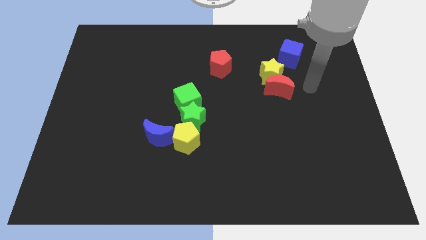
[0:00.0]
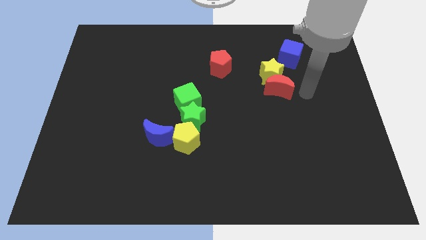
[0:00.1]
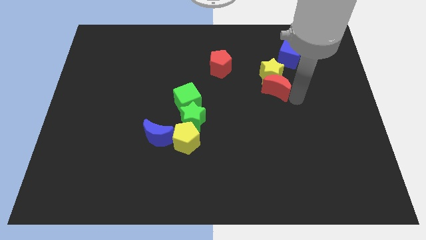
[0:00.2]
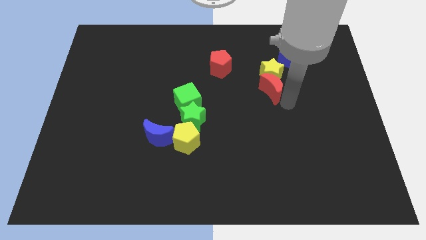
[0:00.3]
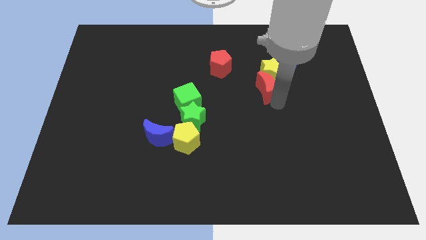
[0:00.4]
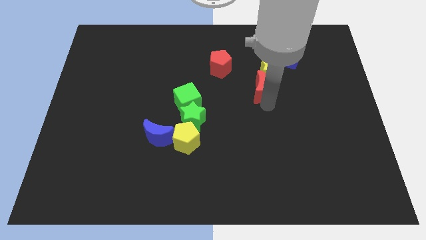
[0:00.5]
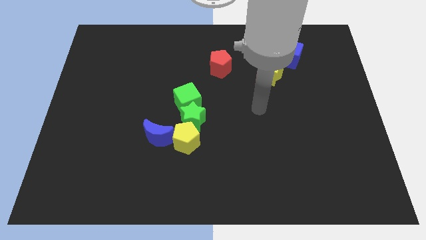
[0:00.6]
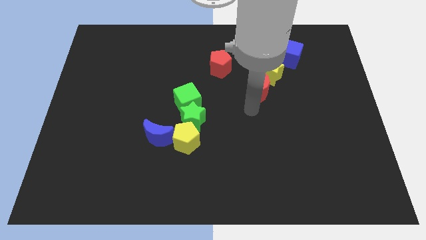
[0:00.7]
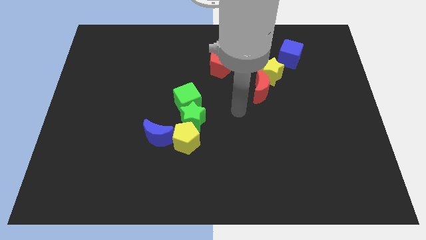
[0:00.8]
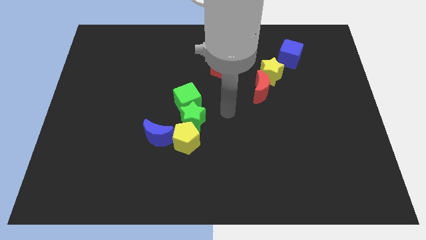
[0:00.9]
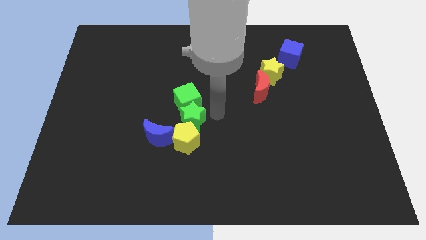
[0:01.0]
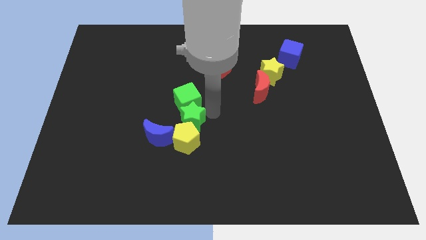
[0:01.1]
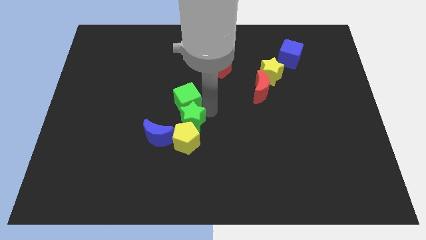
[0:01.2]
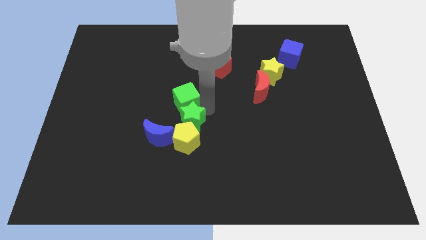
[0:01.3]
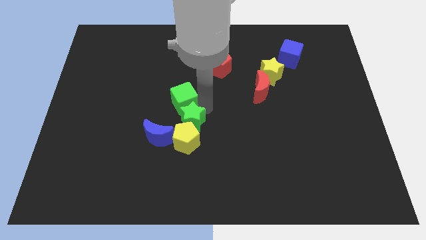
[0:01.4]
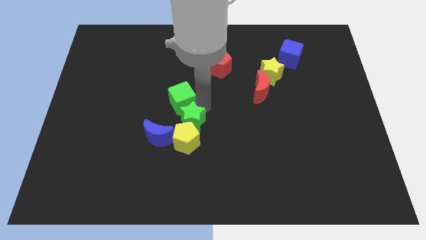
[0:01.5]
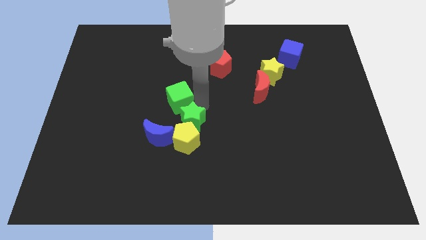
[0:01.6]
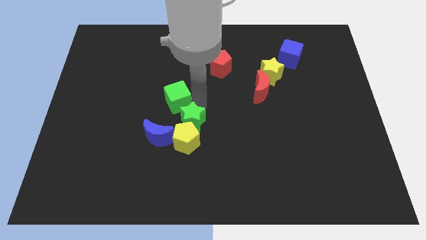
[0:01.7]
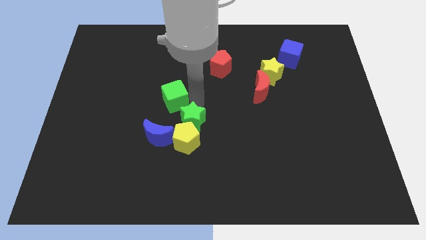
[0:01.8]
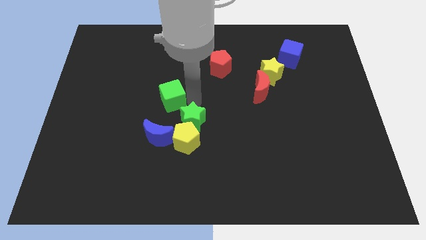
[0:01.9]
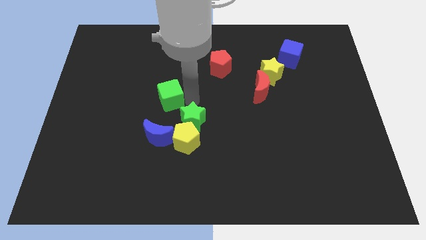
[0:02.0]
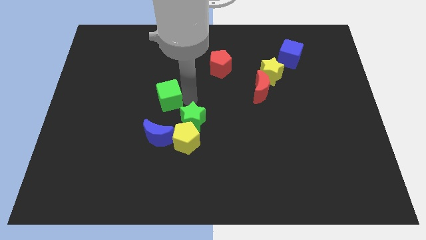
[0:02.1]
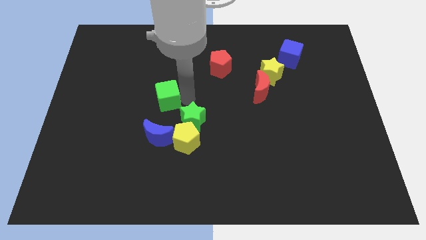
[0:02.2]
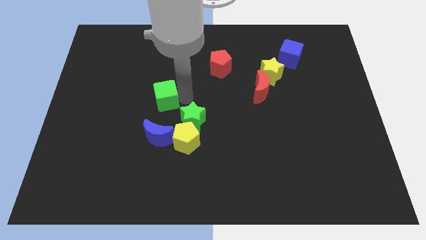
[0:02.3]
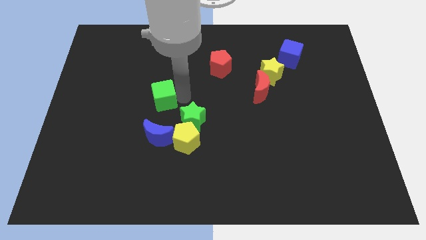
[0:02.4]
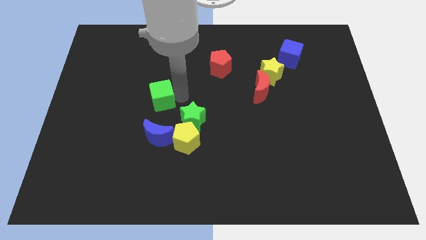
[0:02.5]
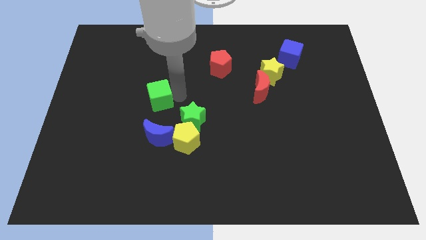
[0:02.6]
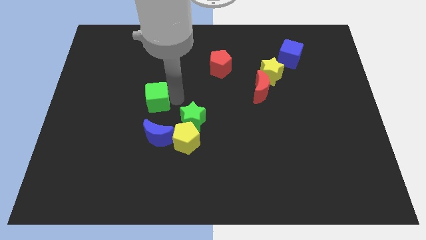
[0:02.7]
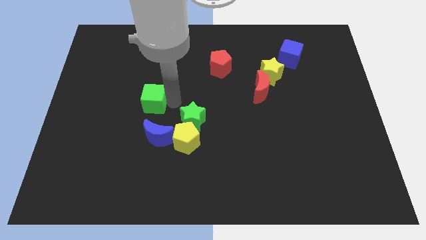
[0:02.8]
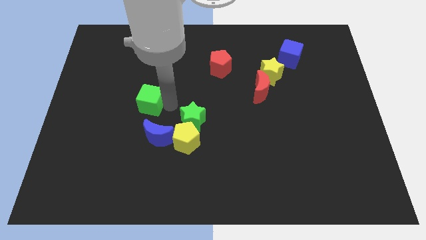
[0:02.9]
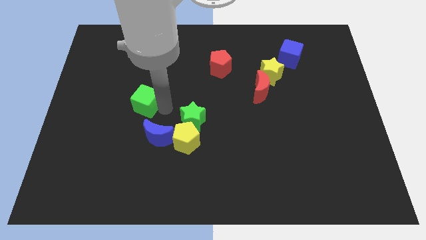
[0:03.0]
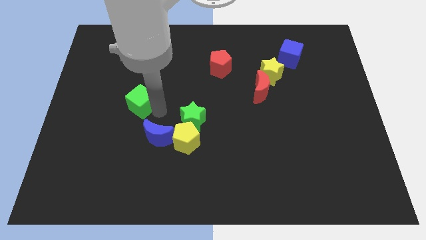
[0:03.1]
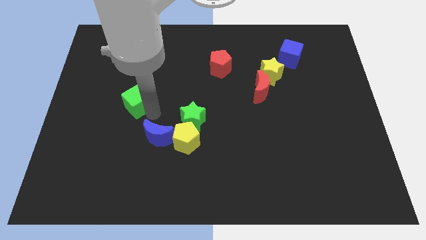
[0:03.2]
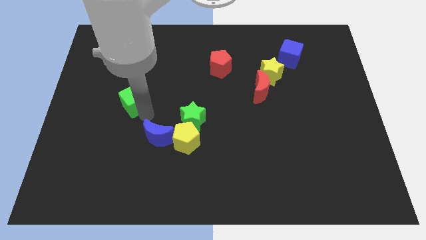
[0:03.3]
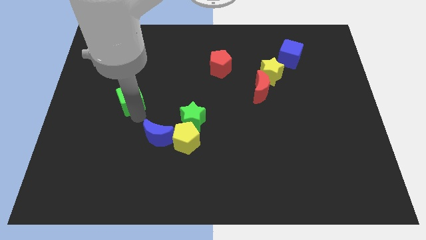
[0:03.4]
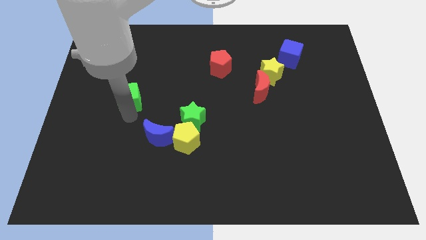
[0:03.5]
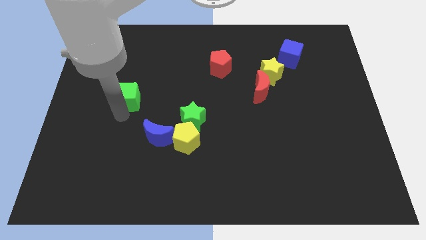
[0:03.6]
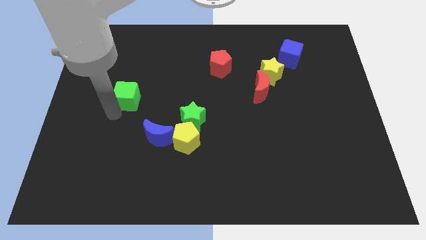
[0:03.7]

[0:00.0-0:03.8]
slide the green cube a bit up and then to the left

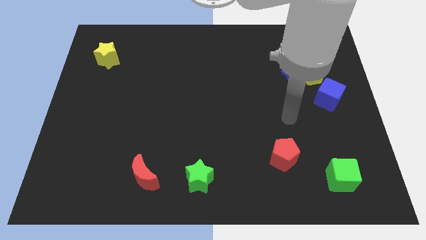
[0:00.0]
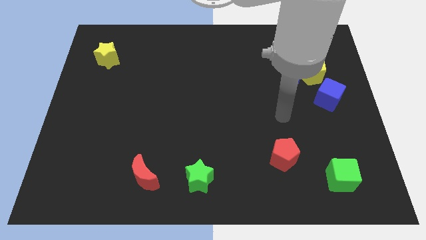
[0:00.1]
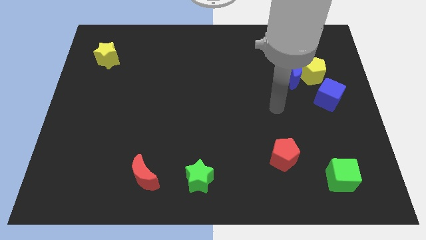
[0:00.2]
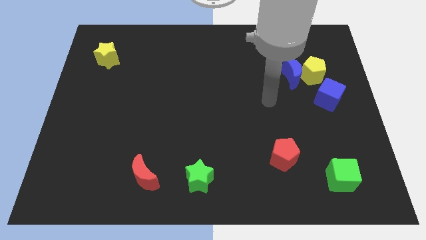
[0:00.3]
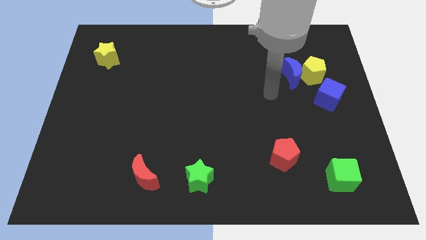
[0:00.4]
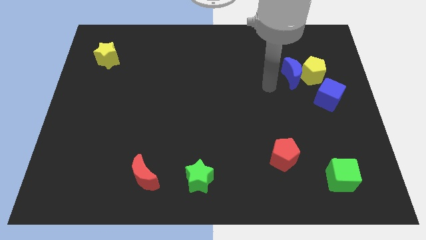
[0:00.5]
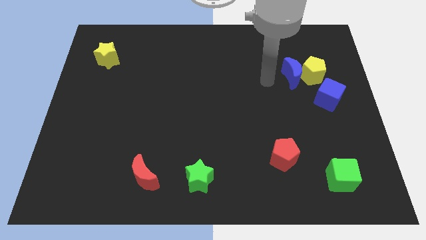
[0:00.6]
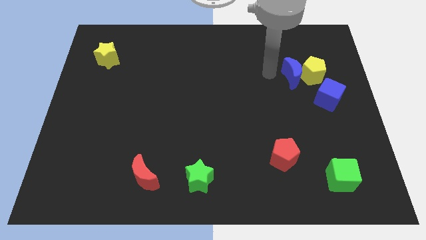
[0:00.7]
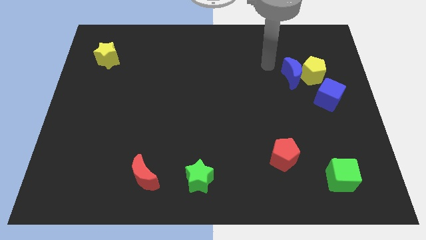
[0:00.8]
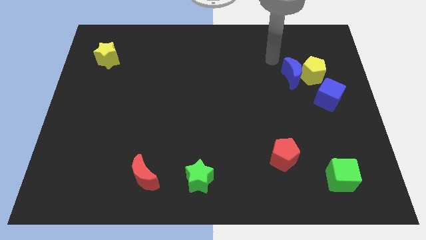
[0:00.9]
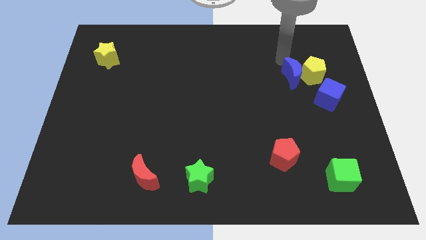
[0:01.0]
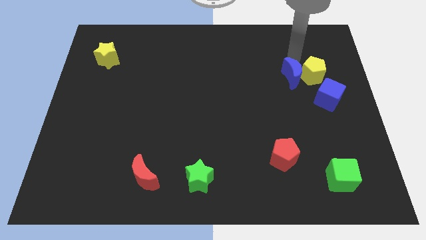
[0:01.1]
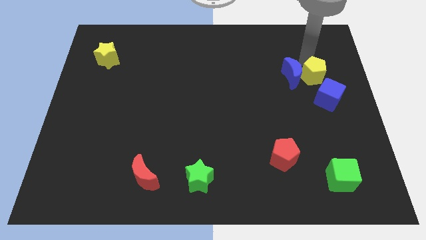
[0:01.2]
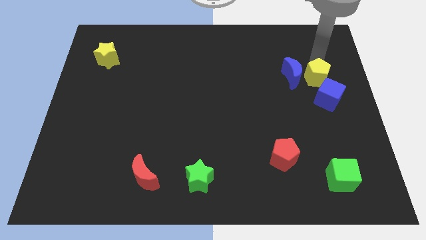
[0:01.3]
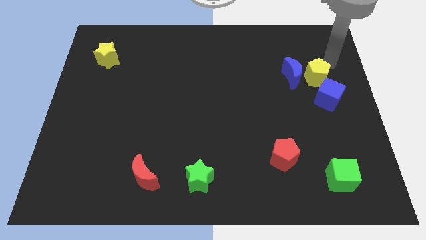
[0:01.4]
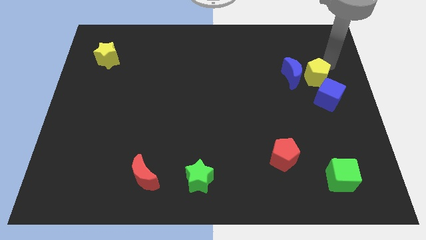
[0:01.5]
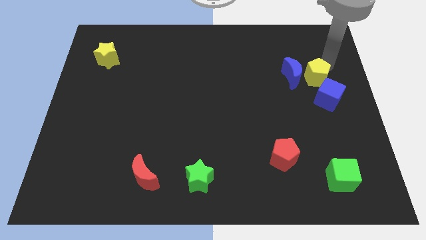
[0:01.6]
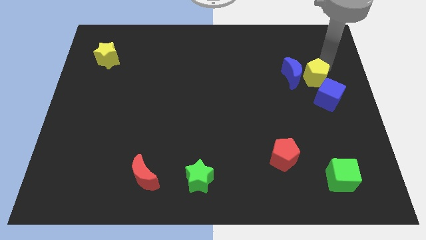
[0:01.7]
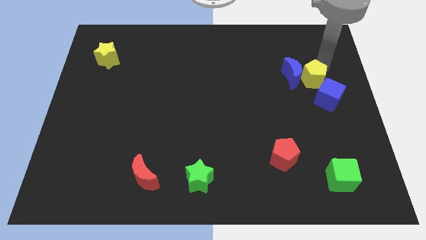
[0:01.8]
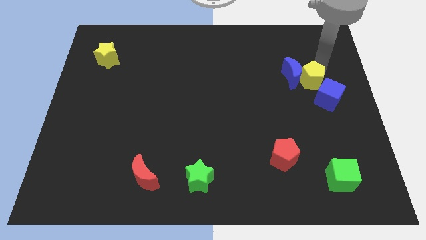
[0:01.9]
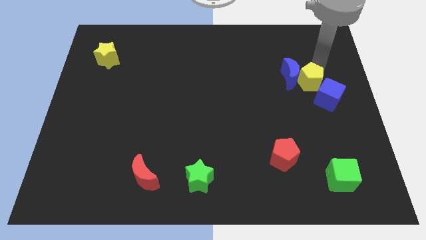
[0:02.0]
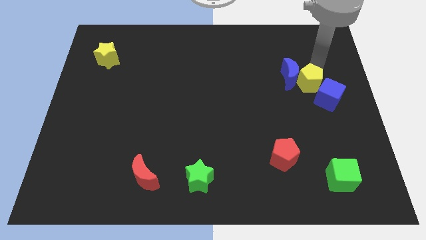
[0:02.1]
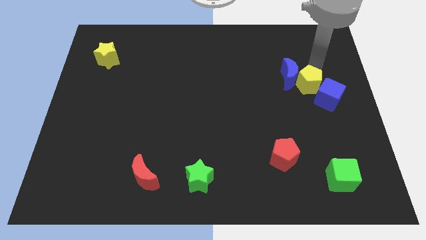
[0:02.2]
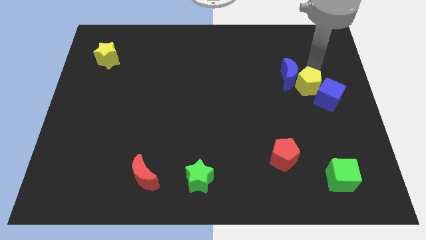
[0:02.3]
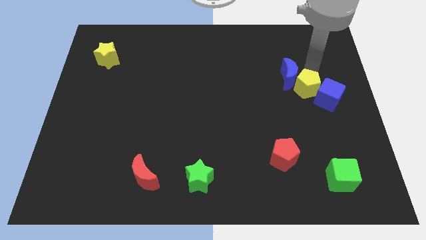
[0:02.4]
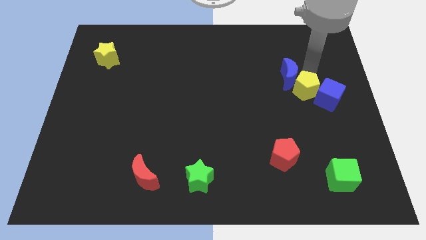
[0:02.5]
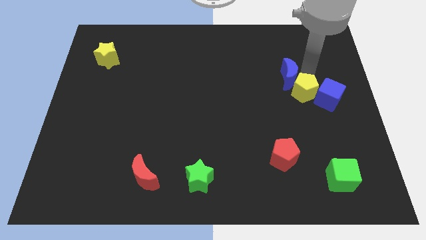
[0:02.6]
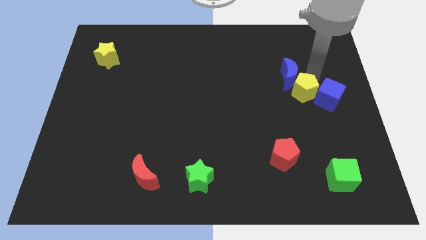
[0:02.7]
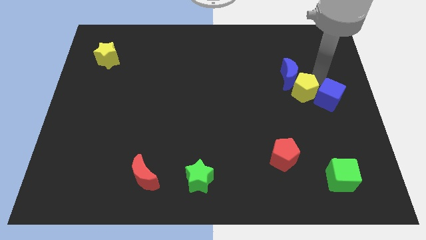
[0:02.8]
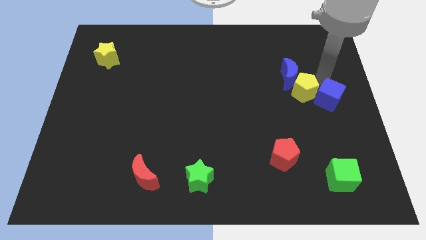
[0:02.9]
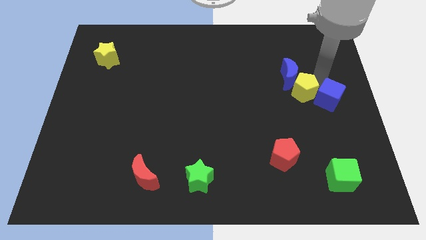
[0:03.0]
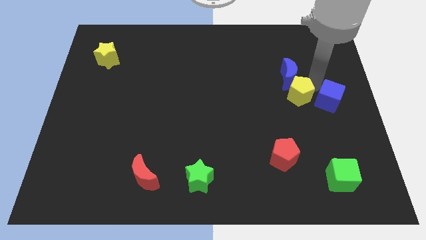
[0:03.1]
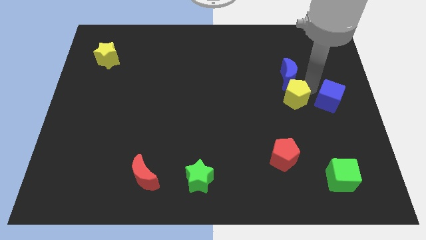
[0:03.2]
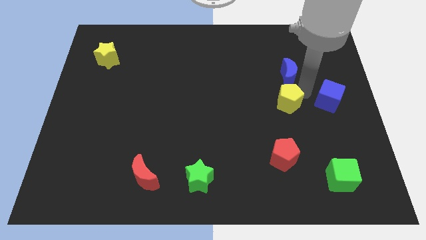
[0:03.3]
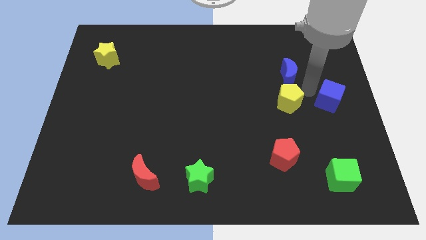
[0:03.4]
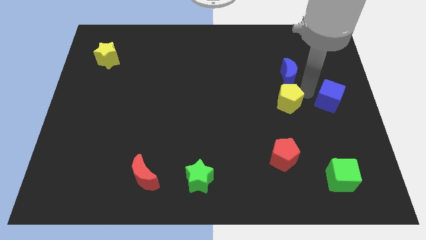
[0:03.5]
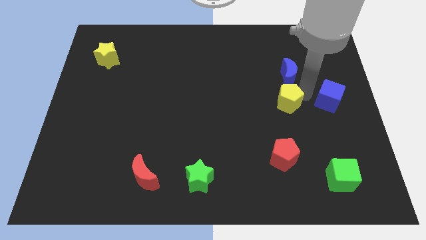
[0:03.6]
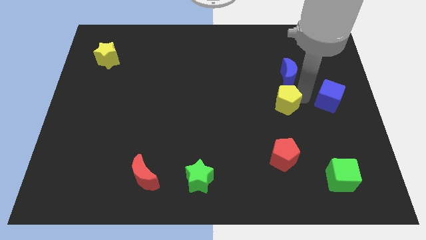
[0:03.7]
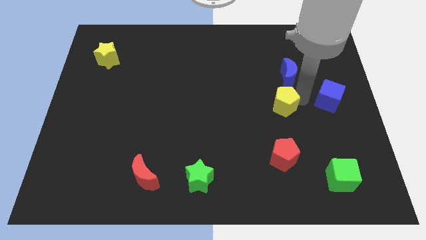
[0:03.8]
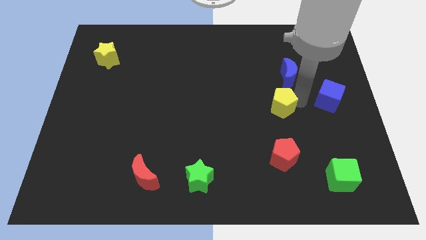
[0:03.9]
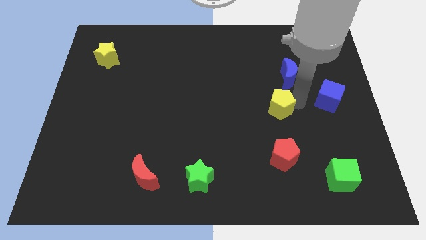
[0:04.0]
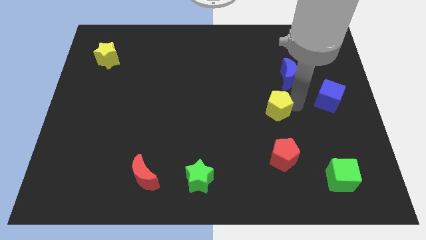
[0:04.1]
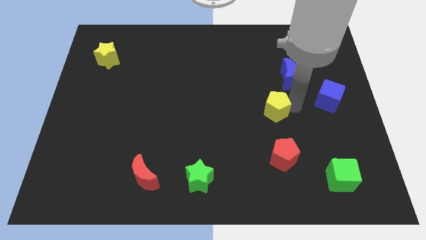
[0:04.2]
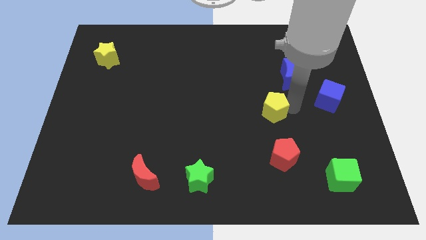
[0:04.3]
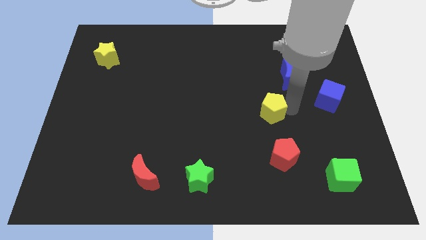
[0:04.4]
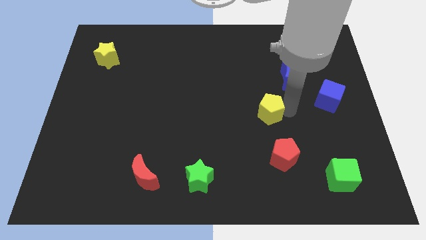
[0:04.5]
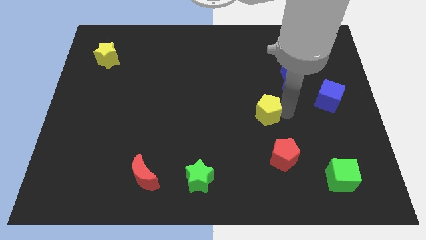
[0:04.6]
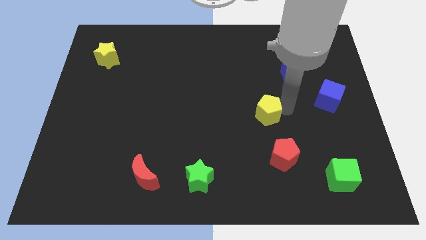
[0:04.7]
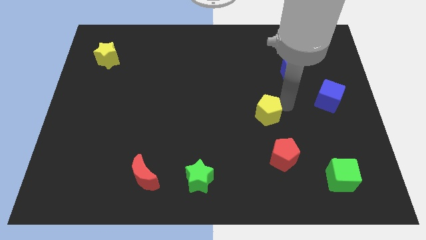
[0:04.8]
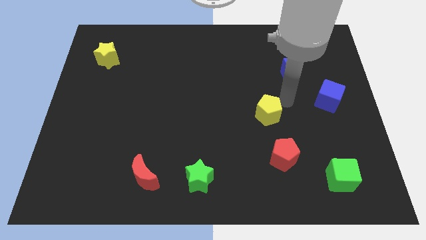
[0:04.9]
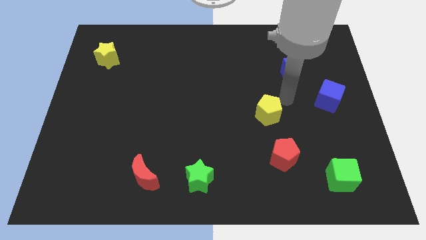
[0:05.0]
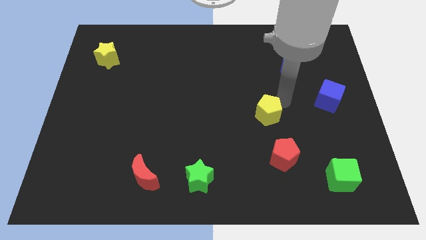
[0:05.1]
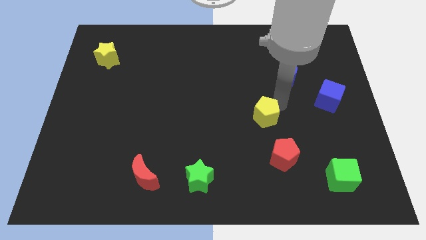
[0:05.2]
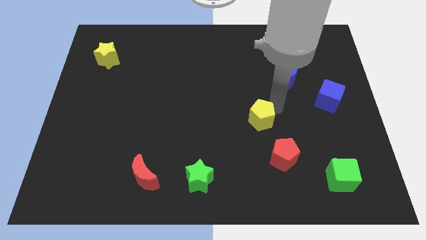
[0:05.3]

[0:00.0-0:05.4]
slide the yellow pentagon downwards and to the left
